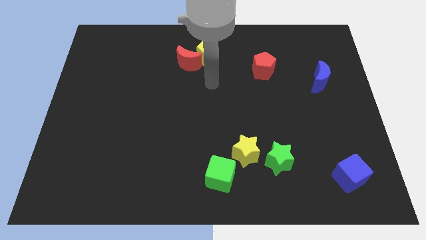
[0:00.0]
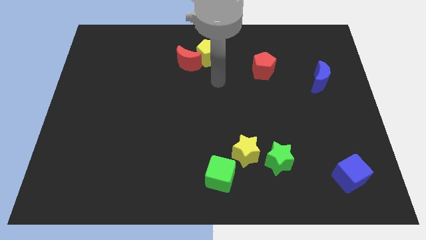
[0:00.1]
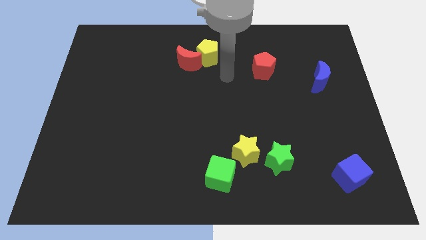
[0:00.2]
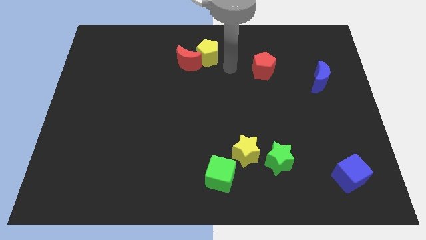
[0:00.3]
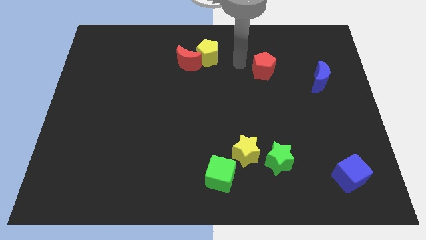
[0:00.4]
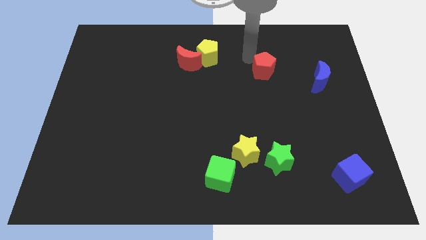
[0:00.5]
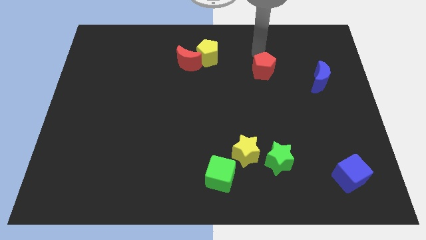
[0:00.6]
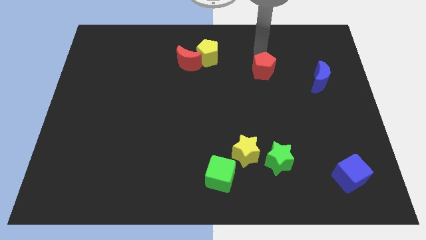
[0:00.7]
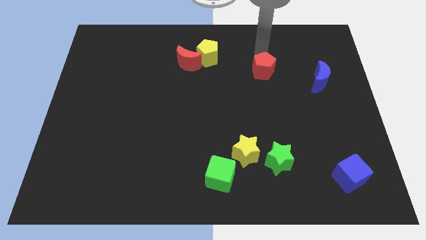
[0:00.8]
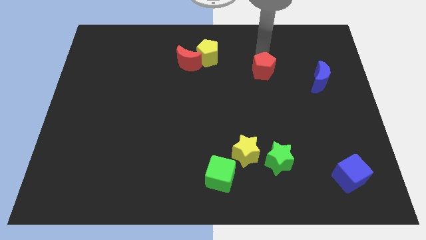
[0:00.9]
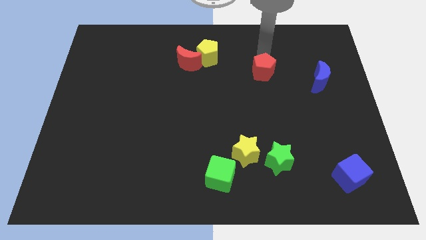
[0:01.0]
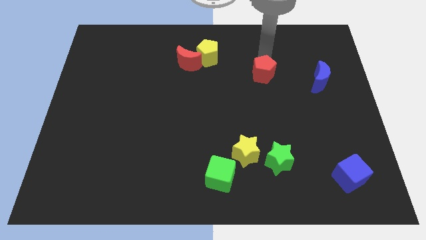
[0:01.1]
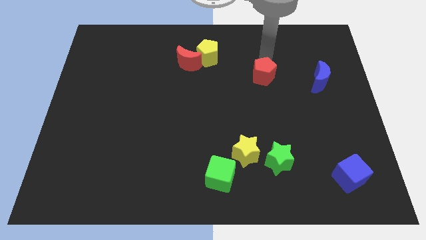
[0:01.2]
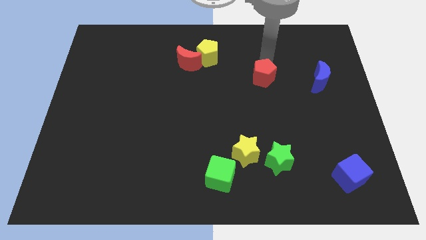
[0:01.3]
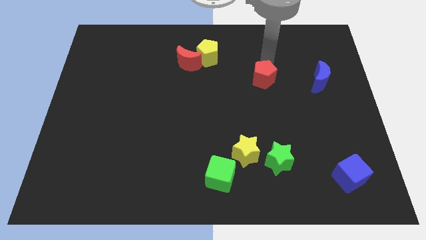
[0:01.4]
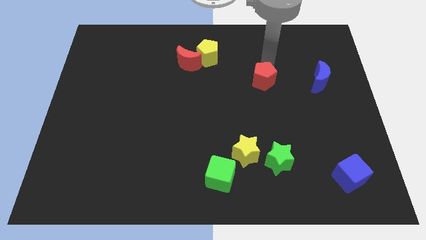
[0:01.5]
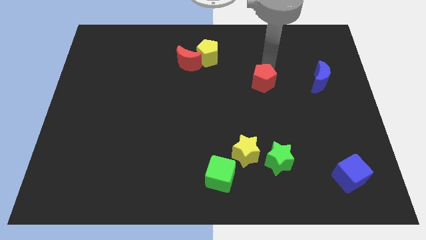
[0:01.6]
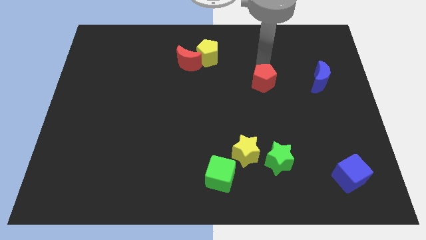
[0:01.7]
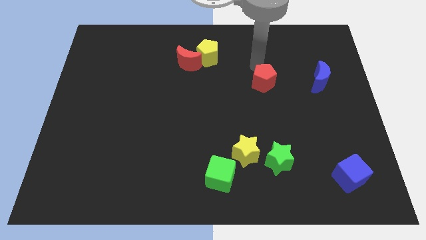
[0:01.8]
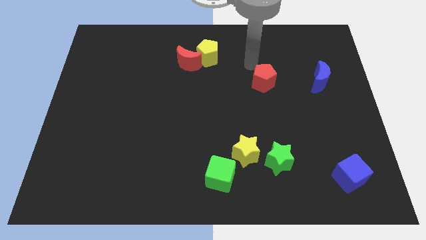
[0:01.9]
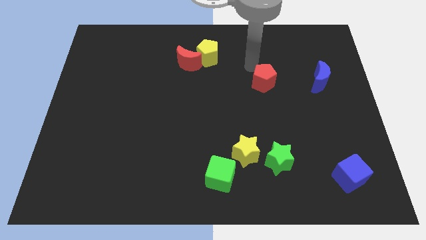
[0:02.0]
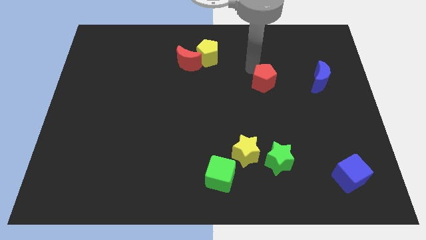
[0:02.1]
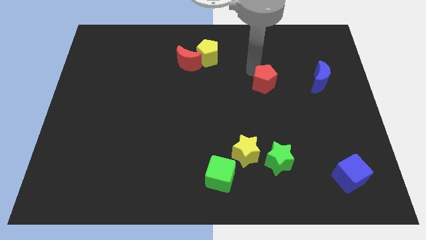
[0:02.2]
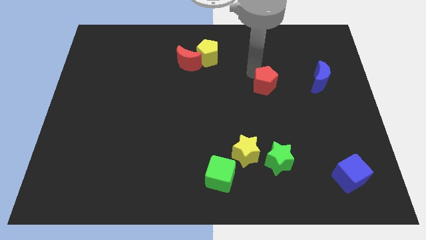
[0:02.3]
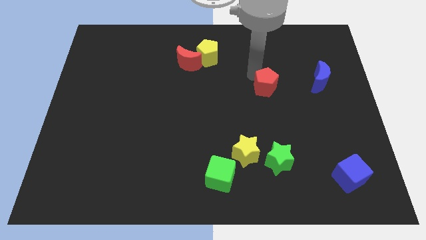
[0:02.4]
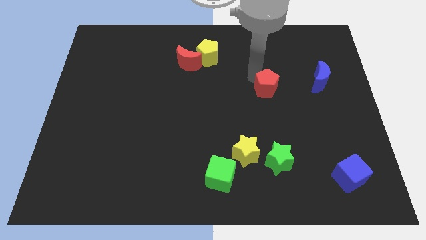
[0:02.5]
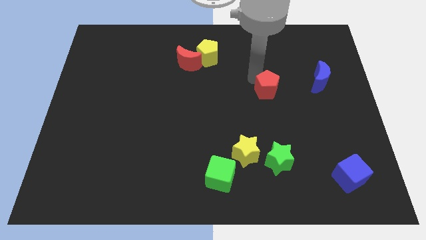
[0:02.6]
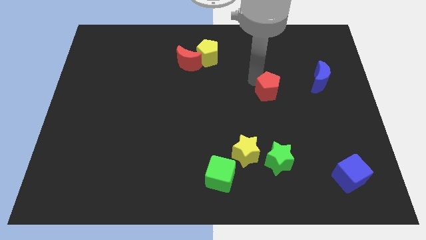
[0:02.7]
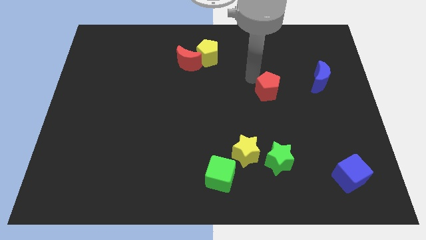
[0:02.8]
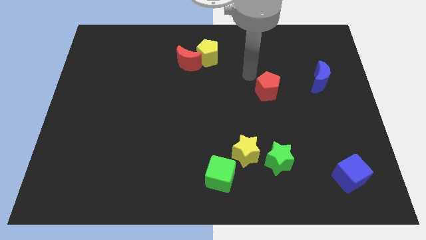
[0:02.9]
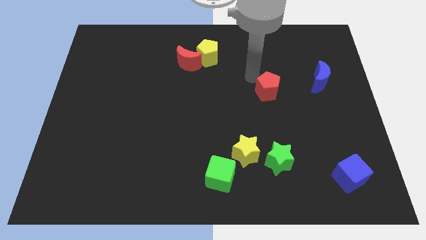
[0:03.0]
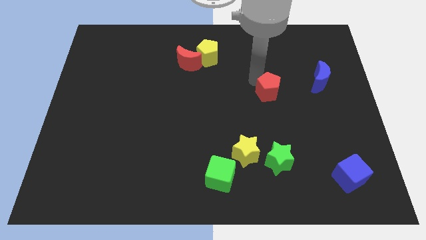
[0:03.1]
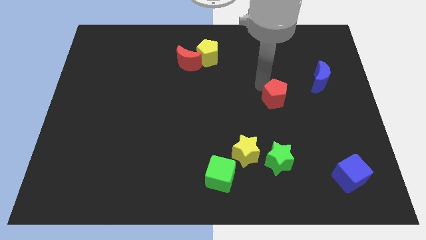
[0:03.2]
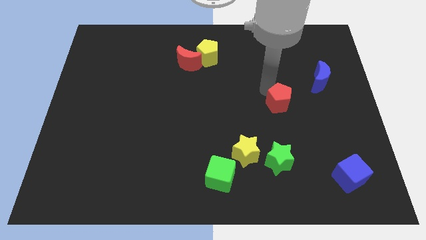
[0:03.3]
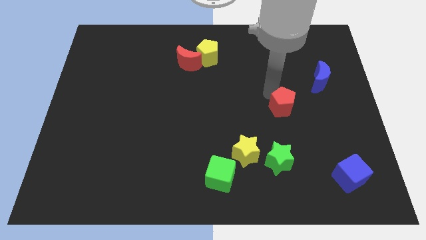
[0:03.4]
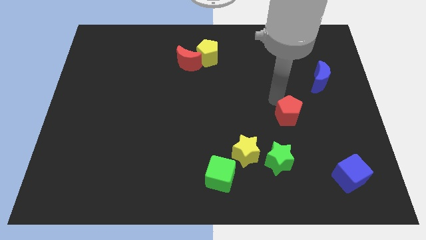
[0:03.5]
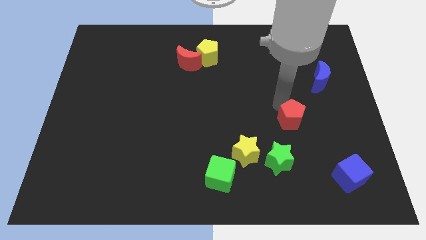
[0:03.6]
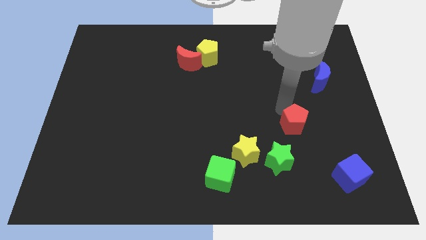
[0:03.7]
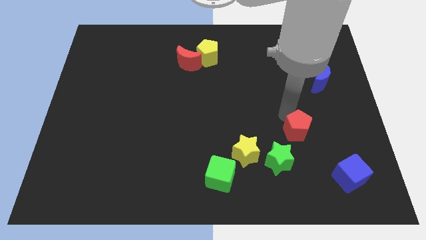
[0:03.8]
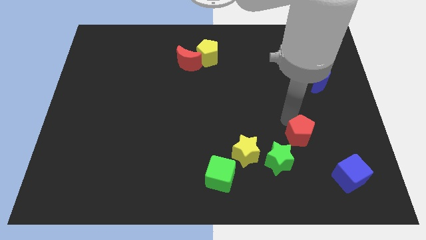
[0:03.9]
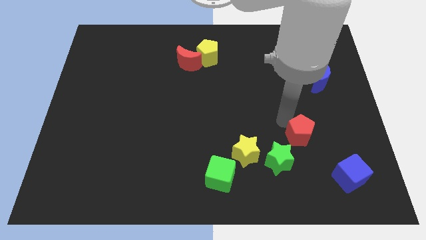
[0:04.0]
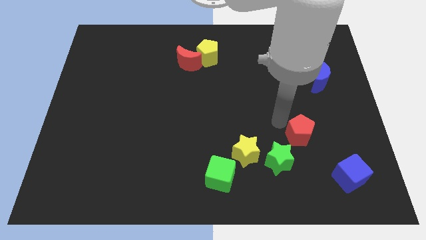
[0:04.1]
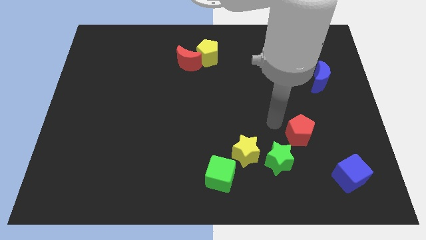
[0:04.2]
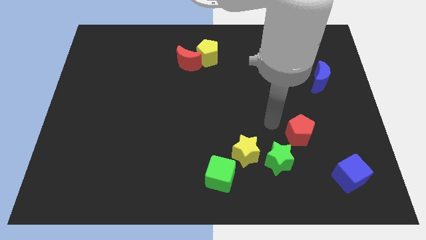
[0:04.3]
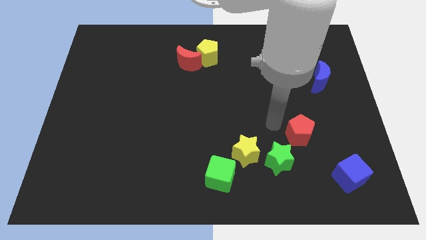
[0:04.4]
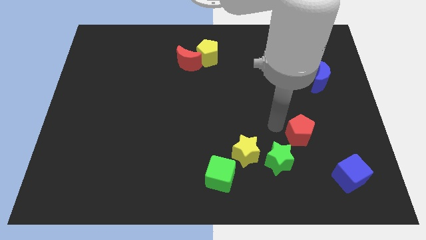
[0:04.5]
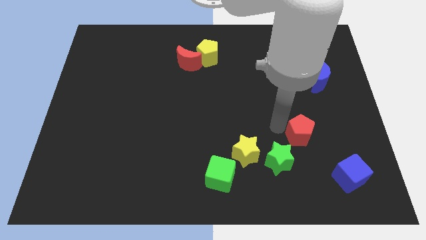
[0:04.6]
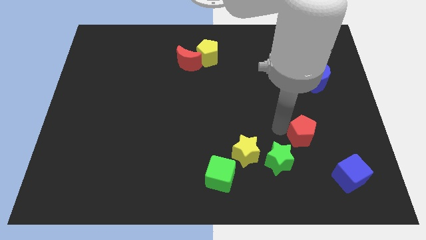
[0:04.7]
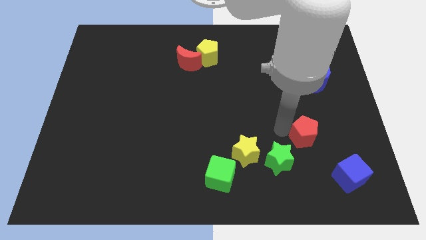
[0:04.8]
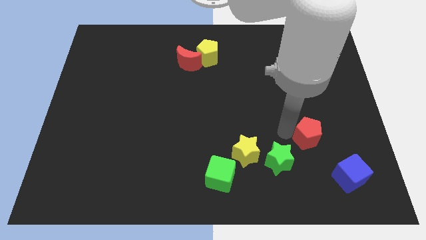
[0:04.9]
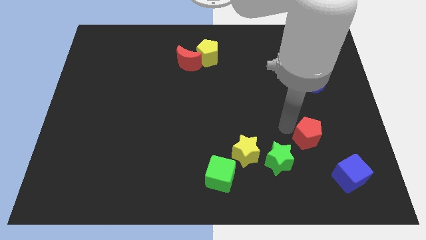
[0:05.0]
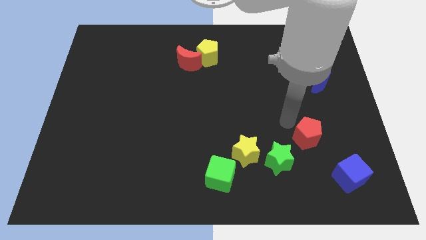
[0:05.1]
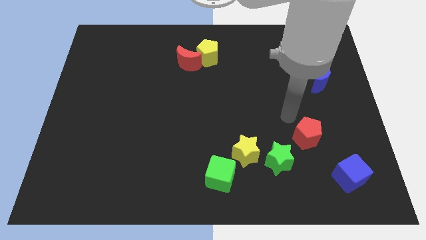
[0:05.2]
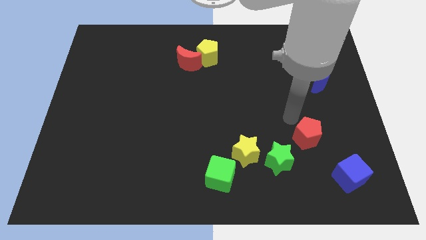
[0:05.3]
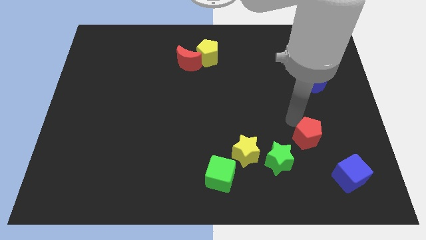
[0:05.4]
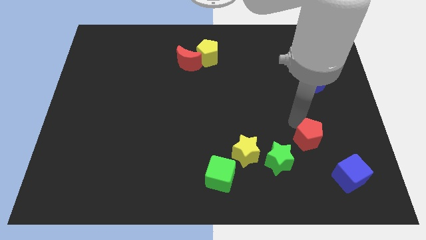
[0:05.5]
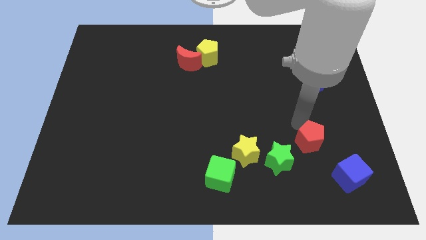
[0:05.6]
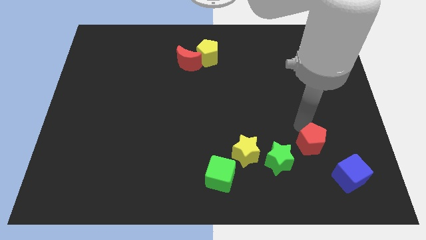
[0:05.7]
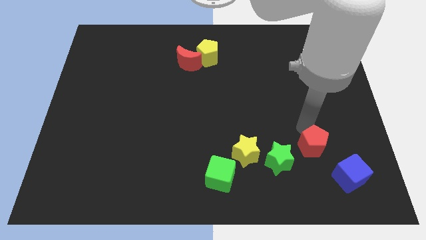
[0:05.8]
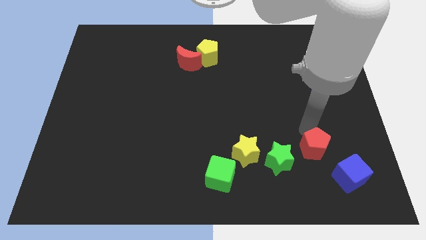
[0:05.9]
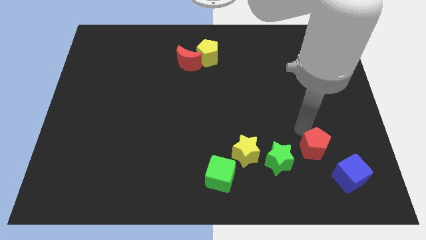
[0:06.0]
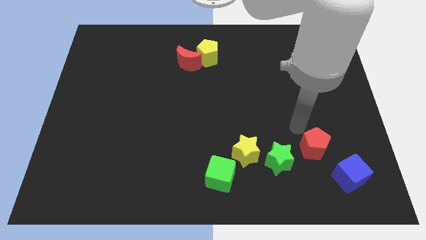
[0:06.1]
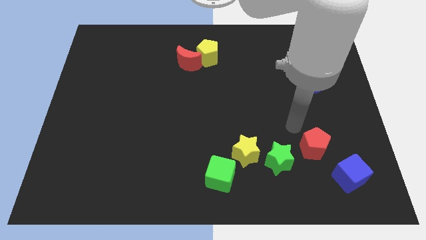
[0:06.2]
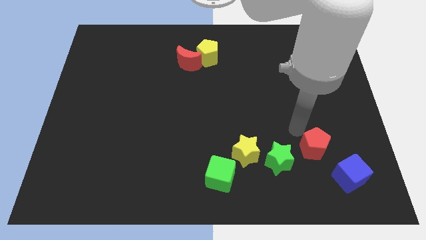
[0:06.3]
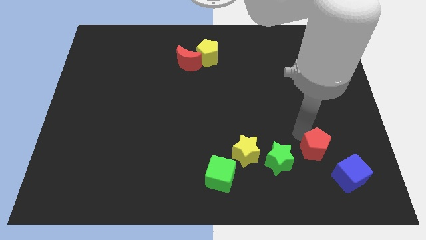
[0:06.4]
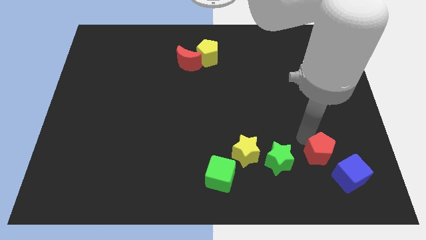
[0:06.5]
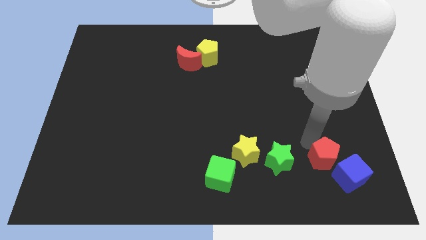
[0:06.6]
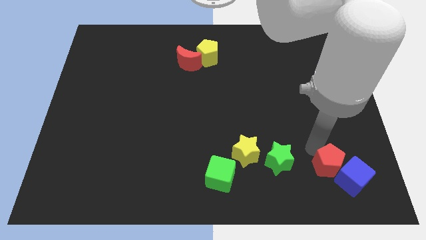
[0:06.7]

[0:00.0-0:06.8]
move the red pentagon towards the blue cube

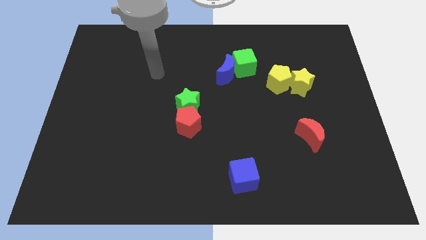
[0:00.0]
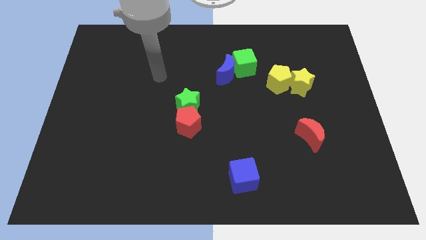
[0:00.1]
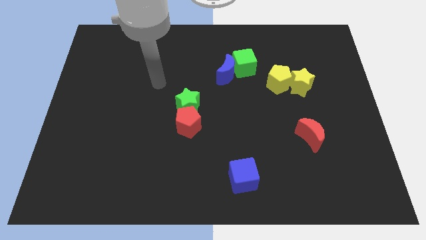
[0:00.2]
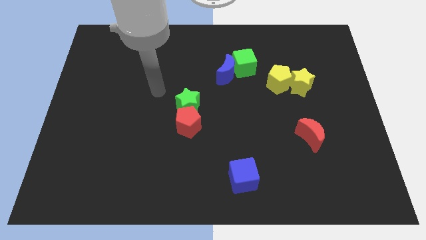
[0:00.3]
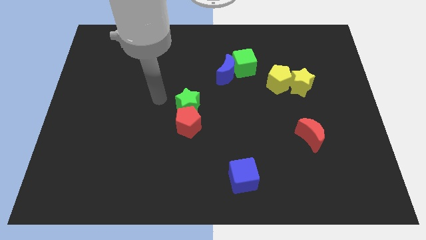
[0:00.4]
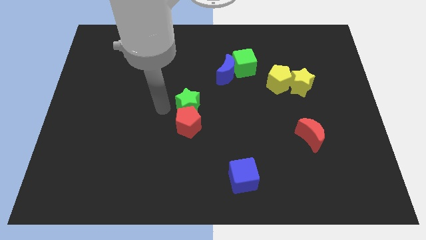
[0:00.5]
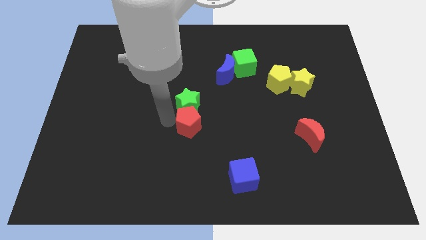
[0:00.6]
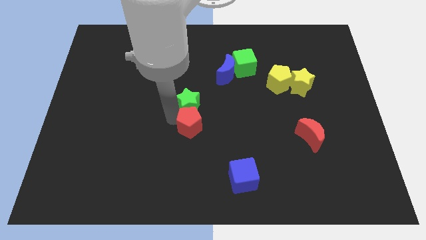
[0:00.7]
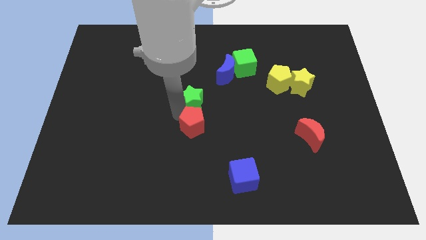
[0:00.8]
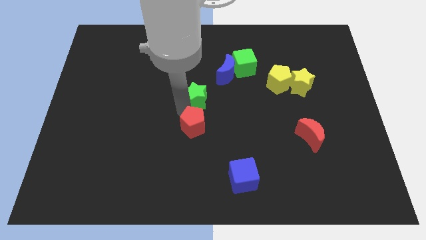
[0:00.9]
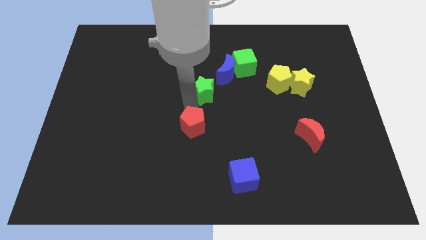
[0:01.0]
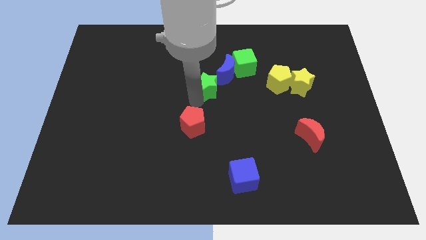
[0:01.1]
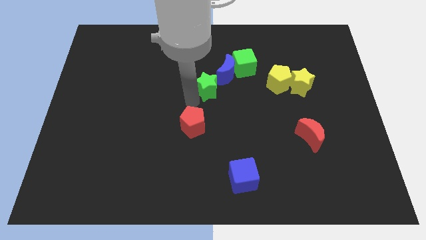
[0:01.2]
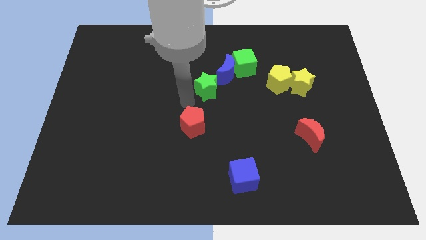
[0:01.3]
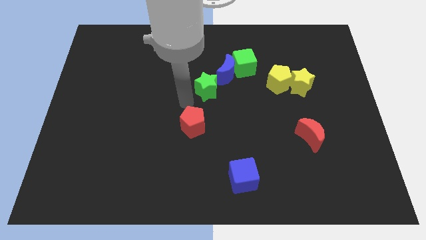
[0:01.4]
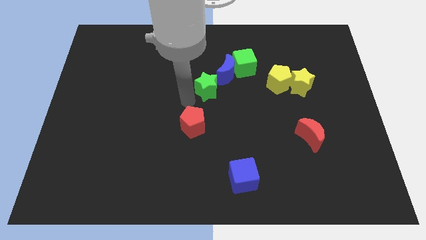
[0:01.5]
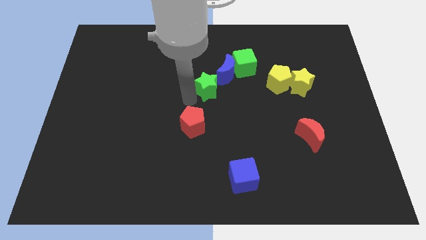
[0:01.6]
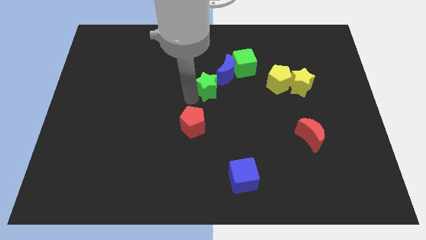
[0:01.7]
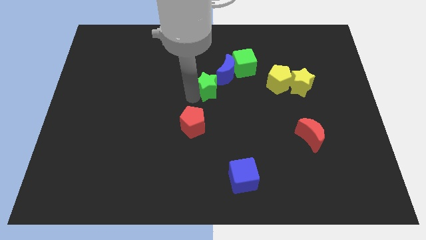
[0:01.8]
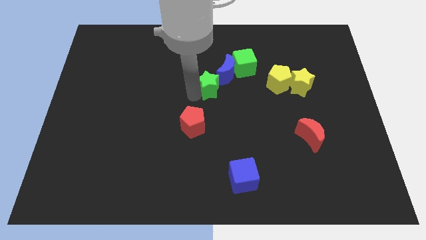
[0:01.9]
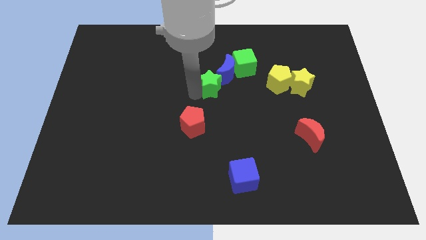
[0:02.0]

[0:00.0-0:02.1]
push the green star towards the blue moon
